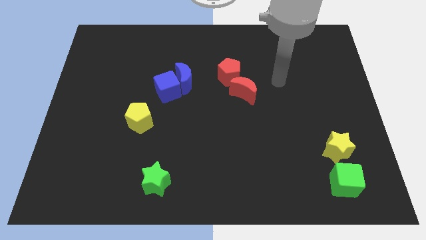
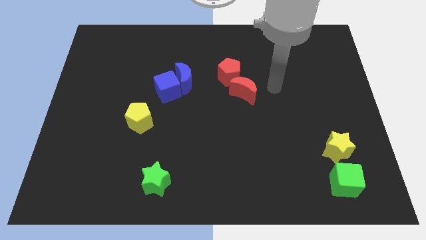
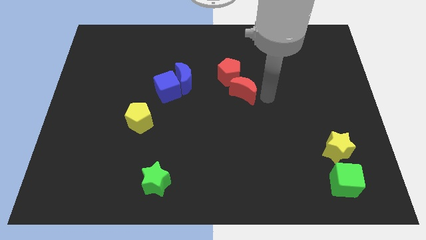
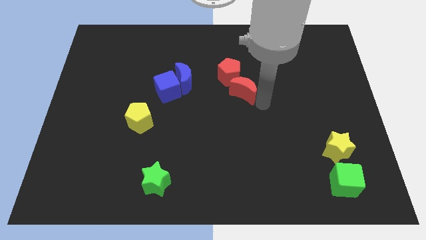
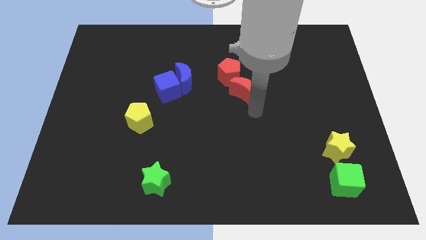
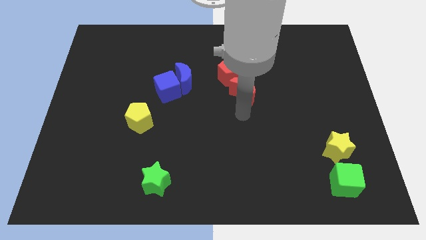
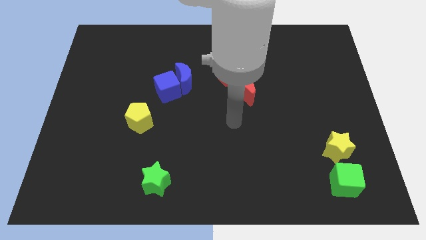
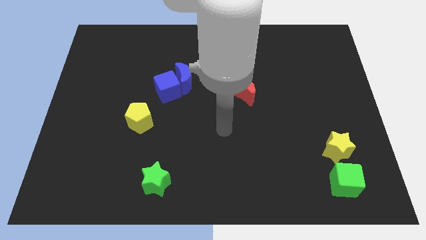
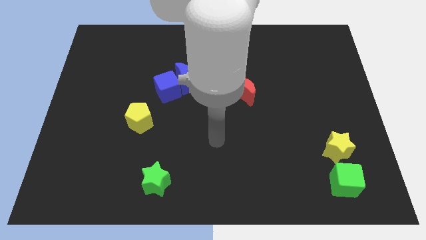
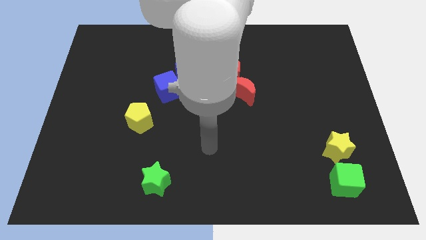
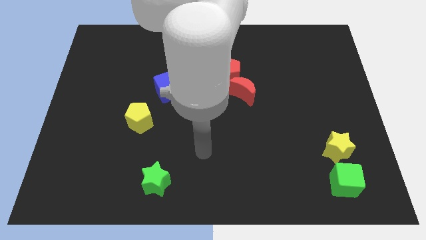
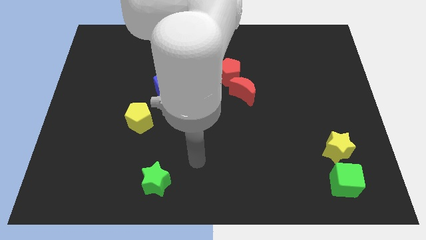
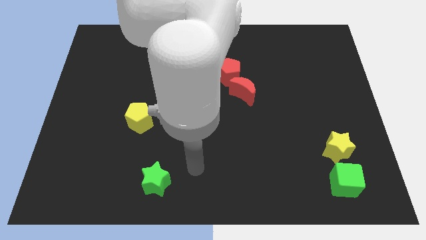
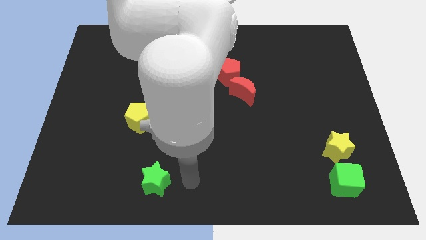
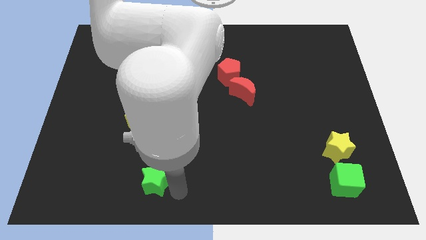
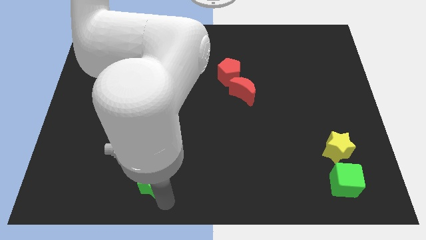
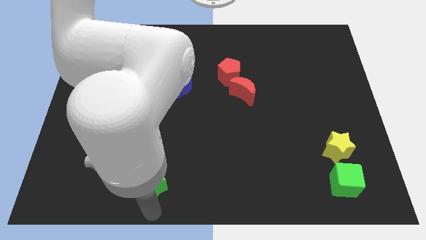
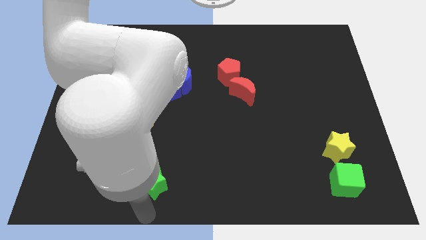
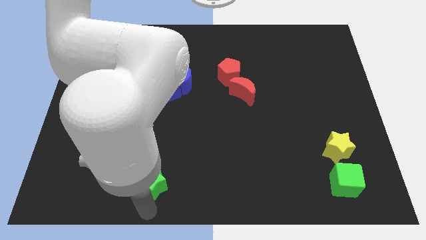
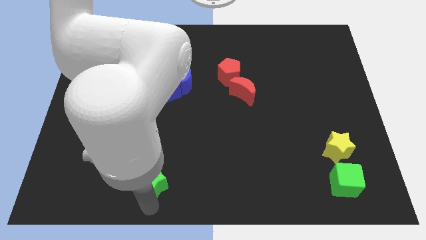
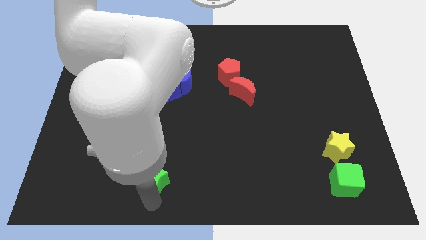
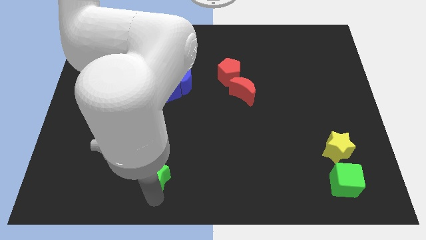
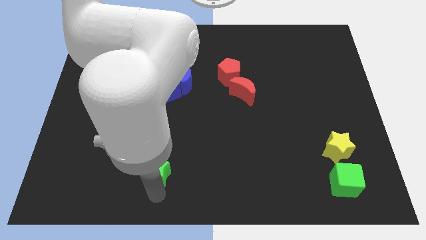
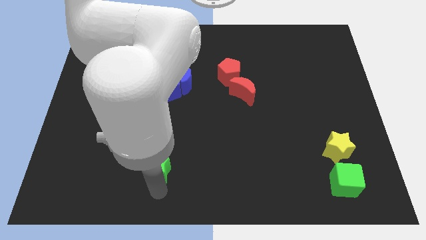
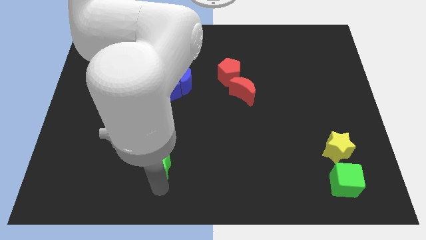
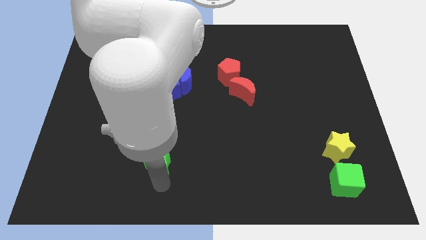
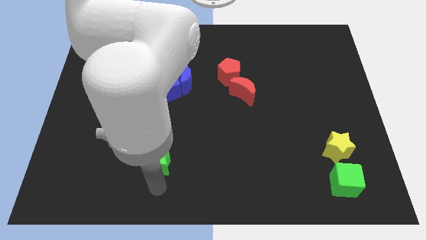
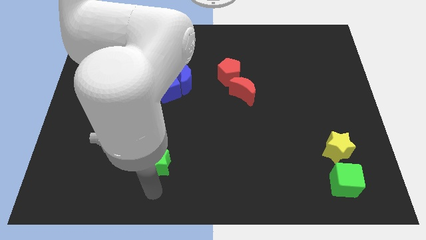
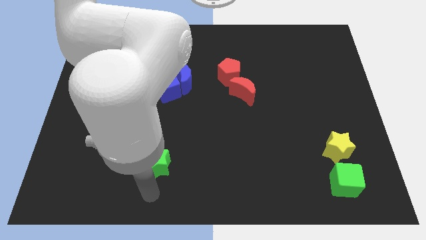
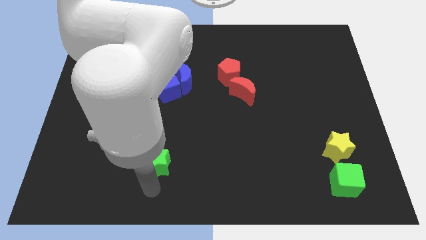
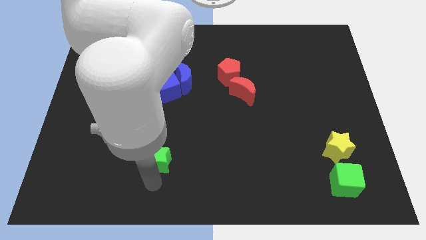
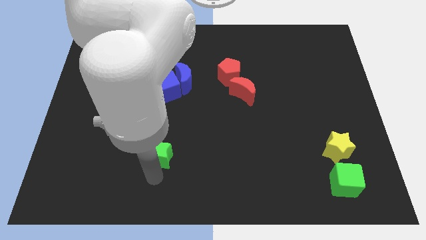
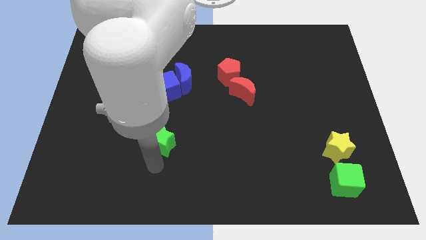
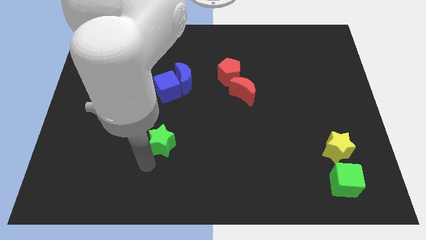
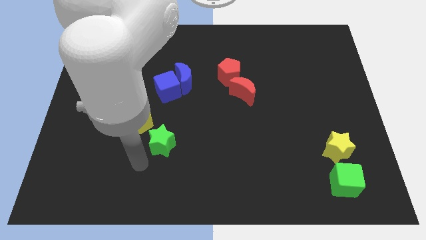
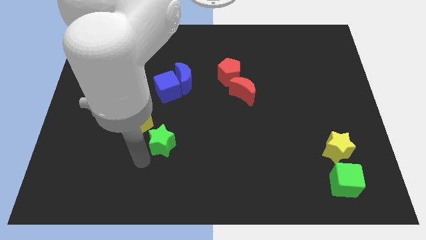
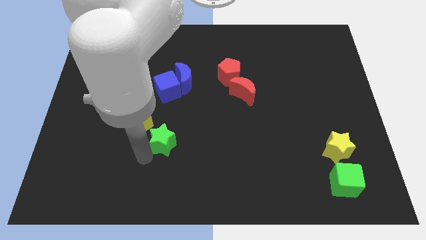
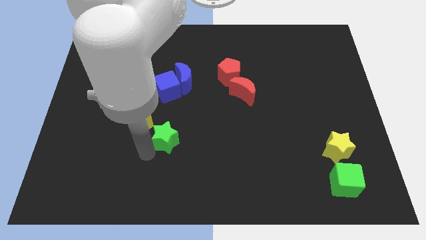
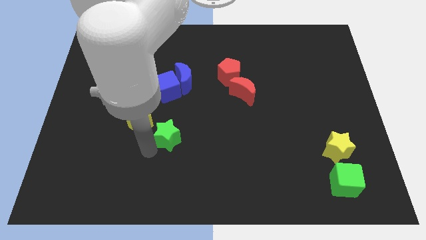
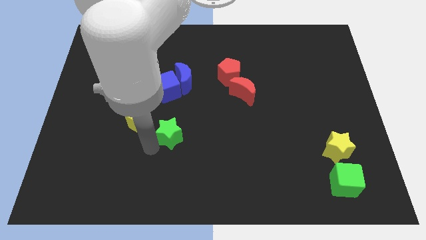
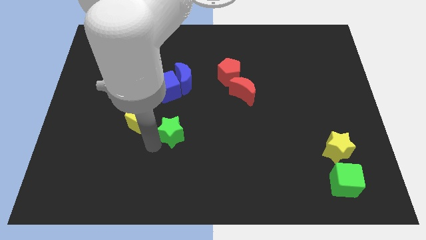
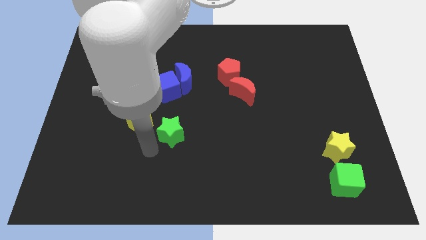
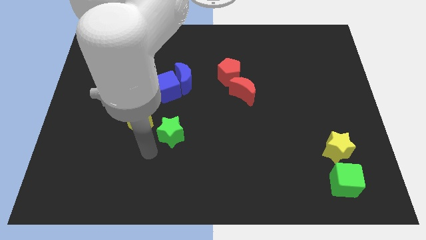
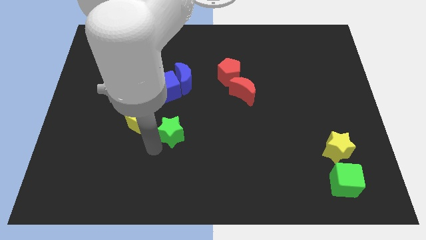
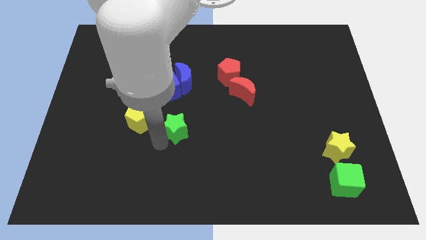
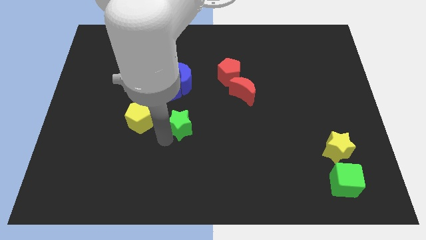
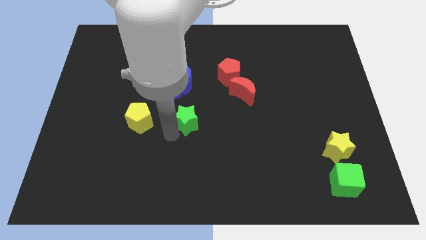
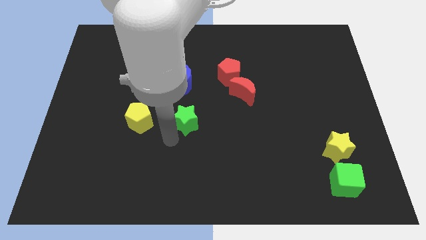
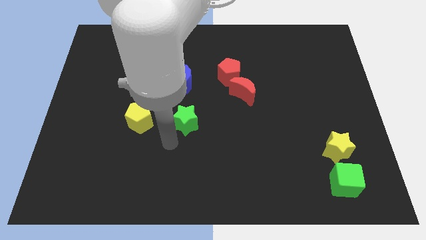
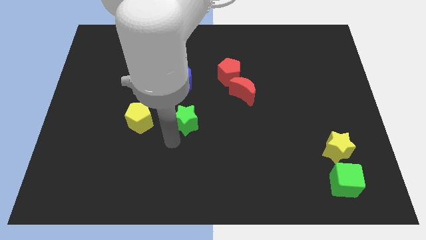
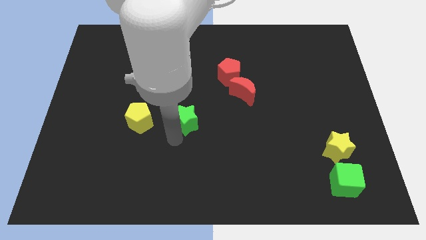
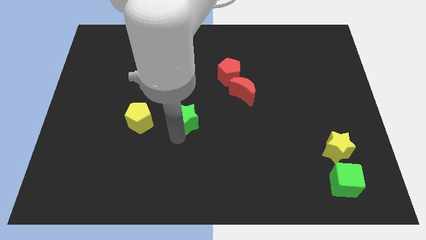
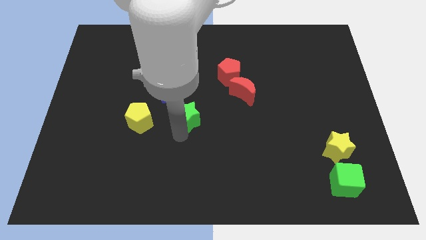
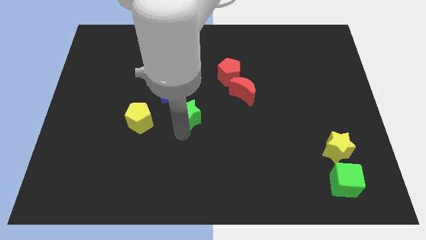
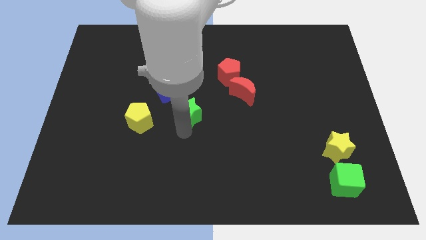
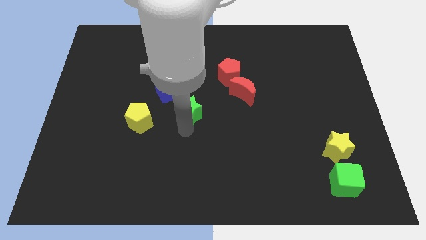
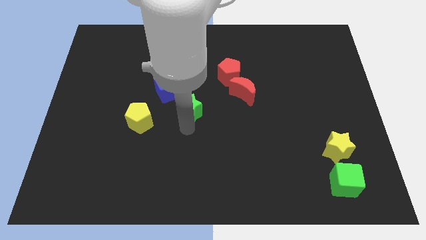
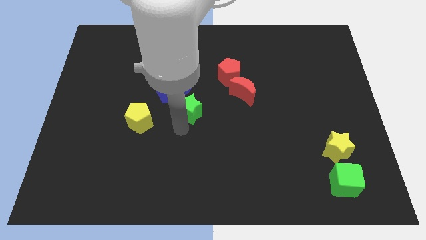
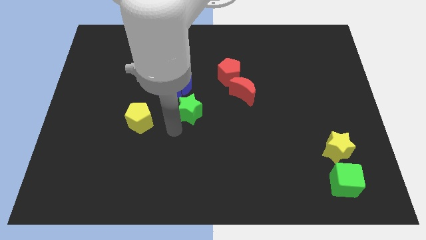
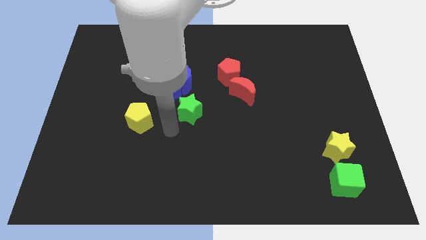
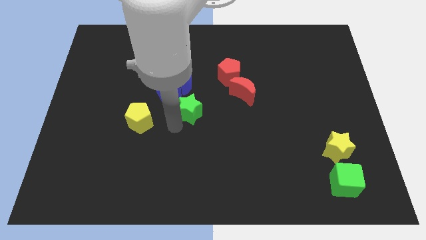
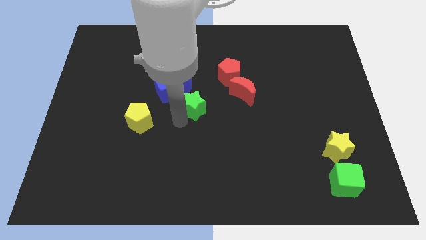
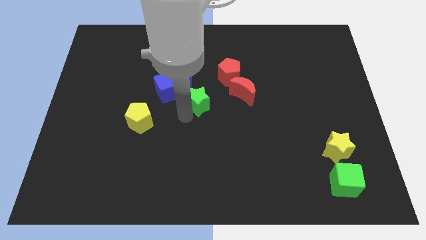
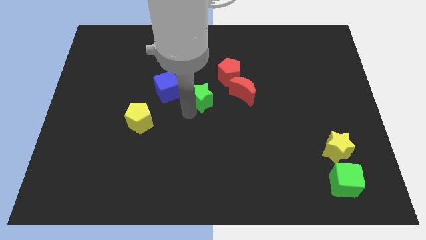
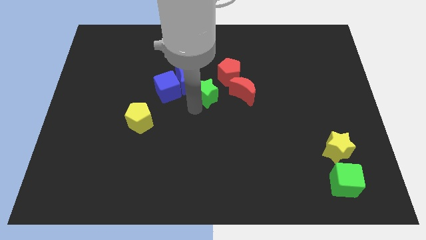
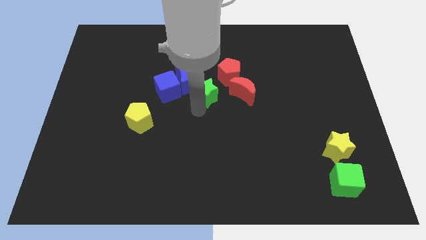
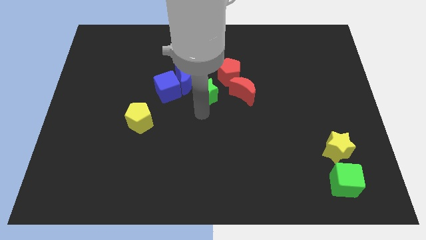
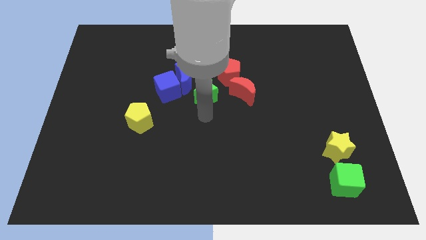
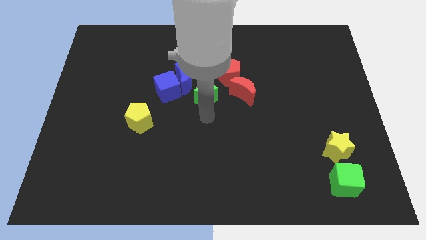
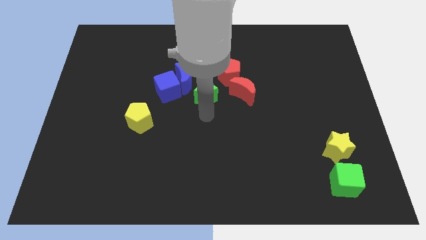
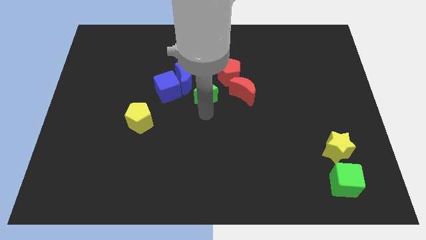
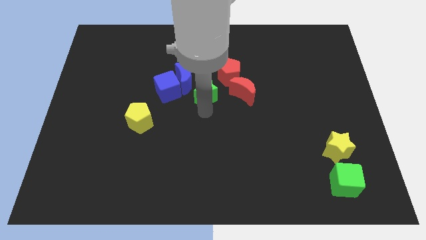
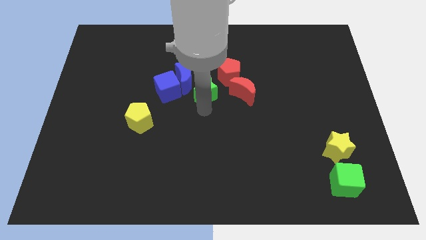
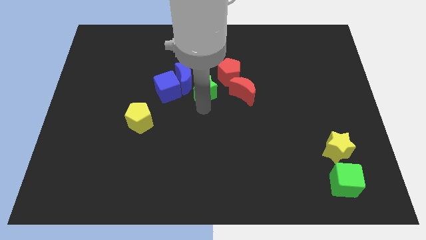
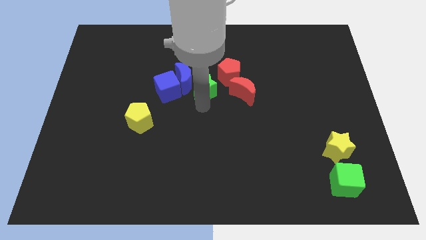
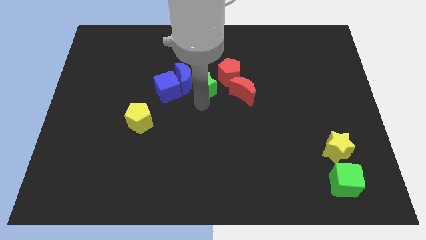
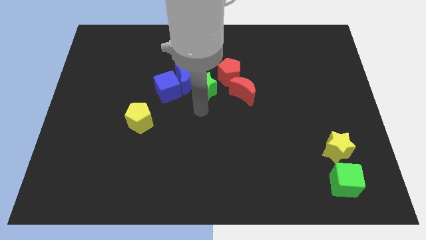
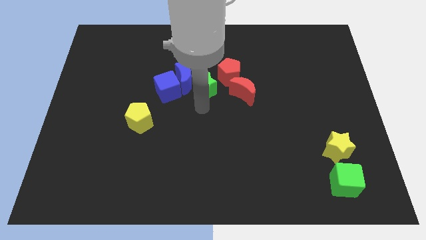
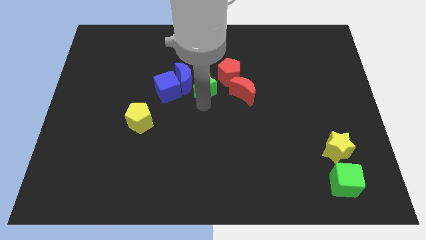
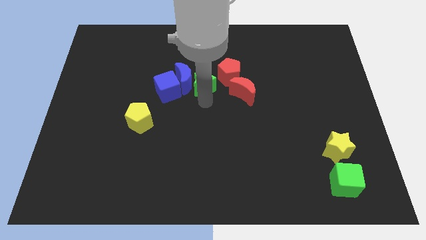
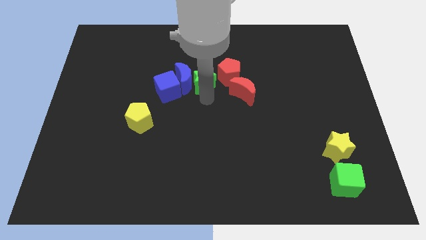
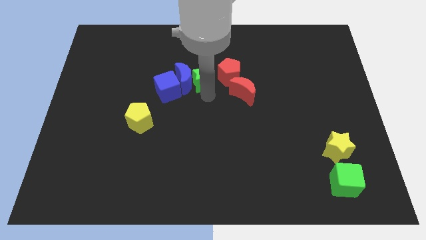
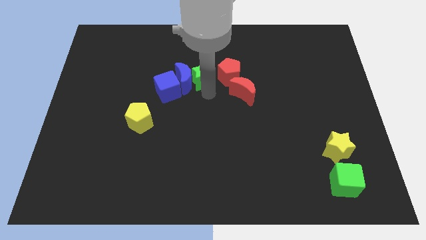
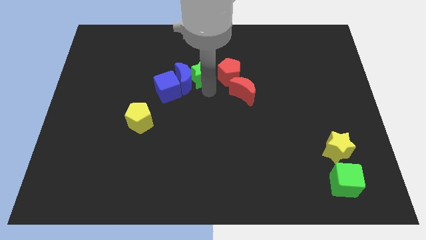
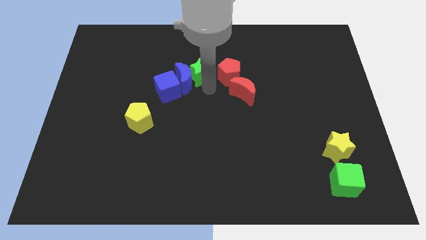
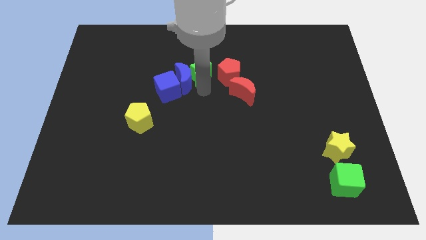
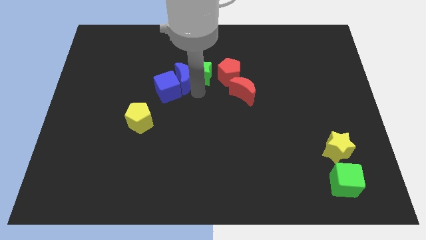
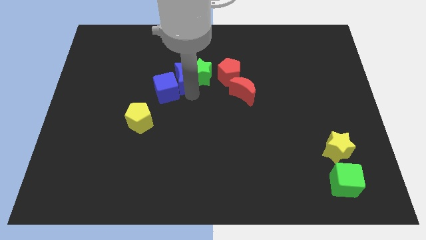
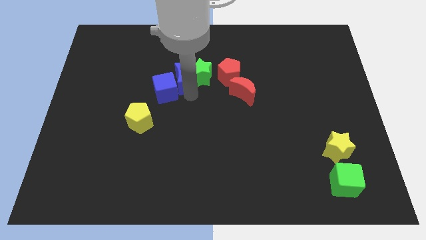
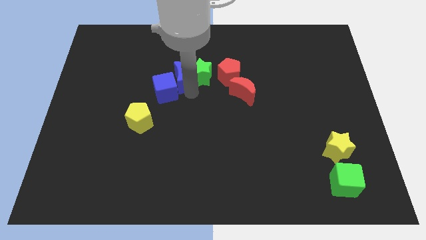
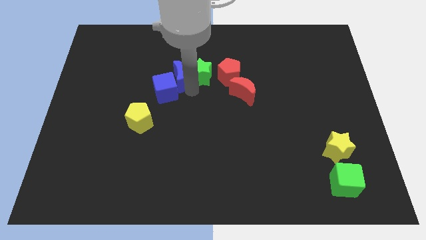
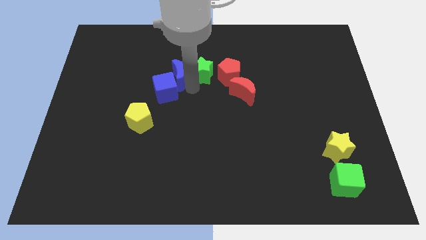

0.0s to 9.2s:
put the green star to the top left side of the red pentagon
